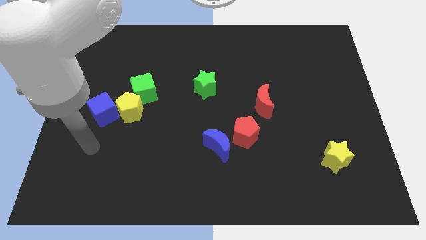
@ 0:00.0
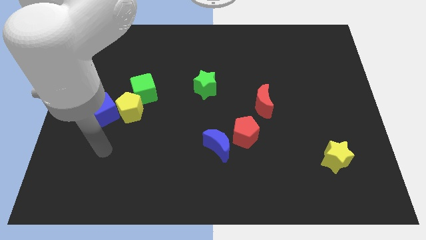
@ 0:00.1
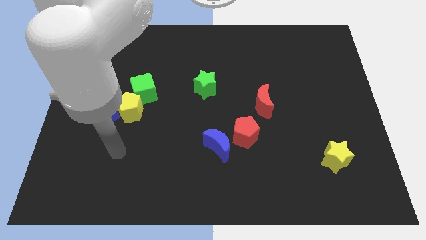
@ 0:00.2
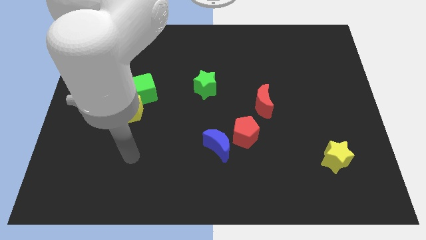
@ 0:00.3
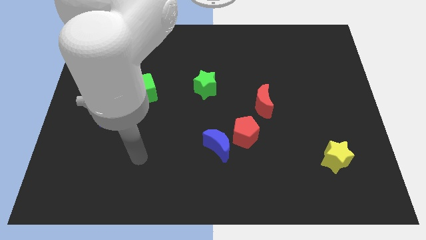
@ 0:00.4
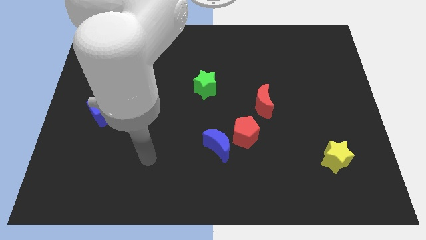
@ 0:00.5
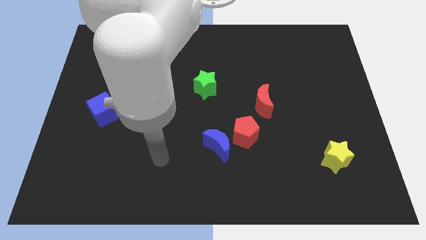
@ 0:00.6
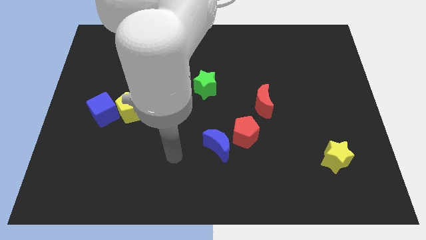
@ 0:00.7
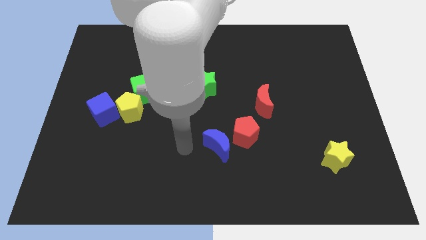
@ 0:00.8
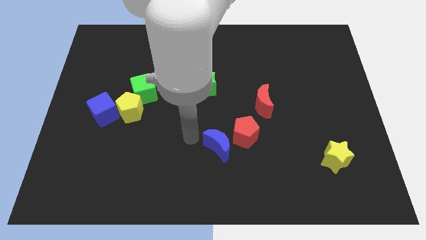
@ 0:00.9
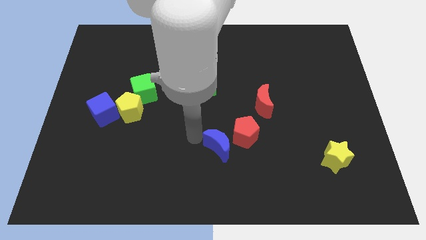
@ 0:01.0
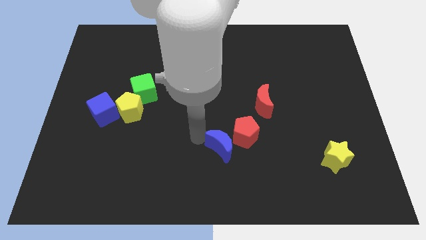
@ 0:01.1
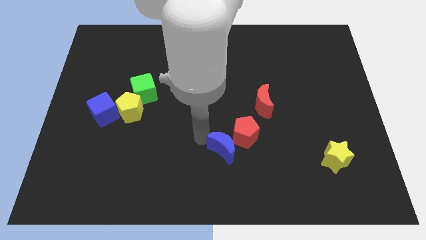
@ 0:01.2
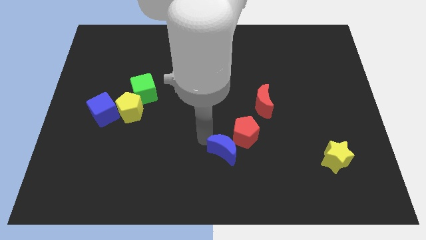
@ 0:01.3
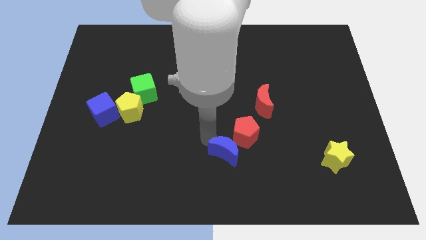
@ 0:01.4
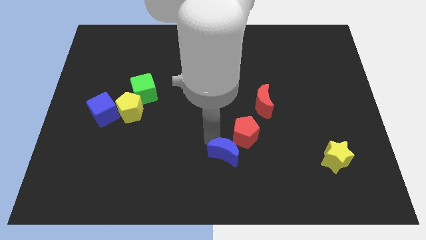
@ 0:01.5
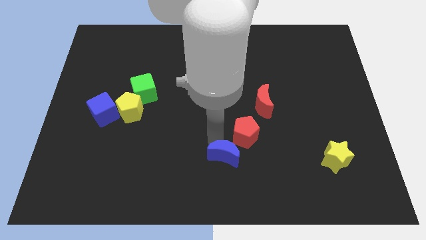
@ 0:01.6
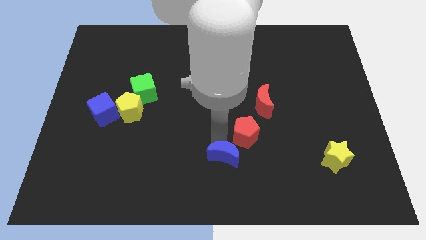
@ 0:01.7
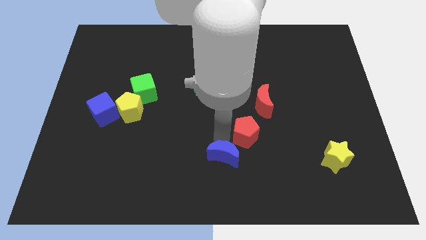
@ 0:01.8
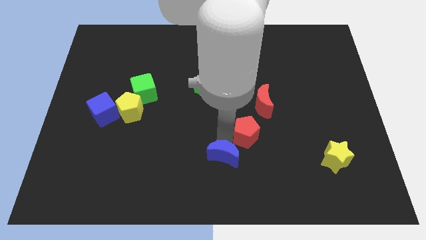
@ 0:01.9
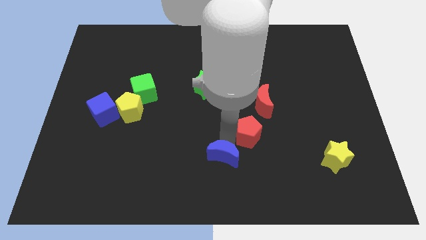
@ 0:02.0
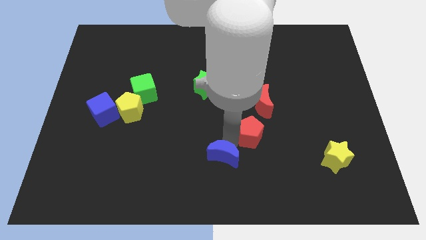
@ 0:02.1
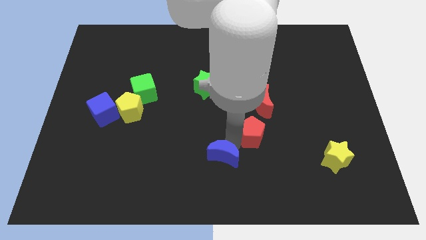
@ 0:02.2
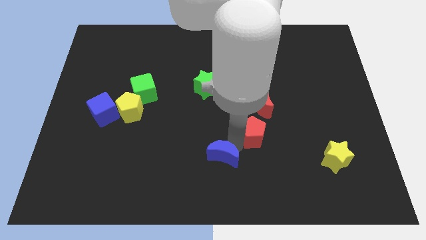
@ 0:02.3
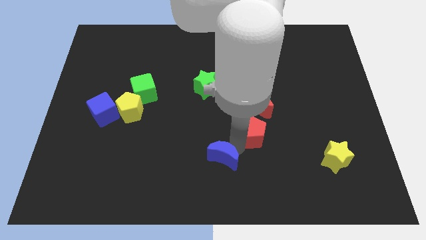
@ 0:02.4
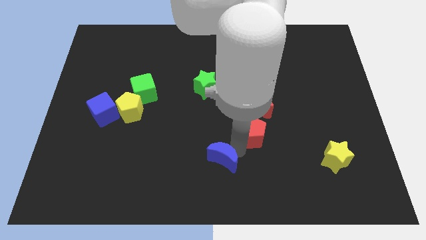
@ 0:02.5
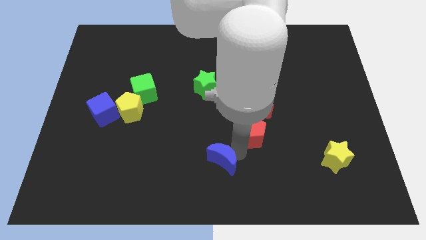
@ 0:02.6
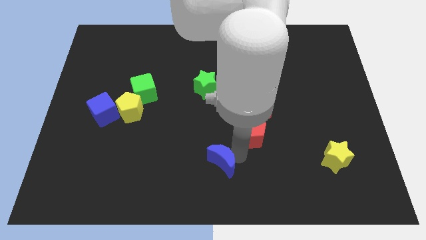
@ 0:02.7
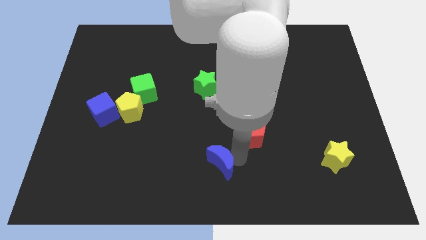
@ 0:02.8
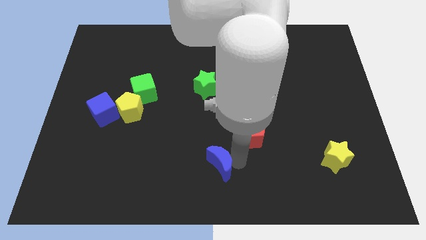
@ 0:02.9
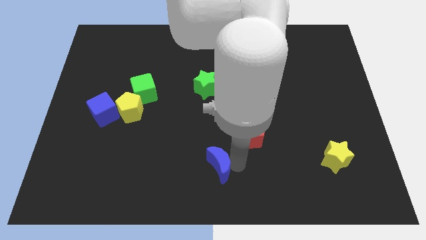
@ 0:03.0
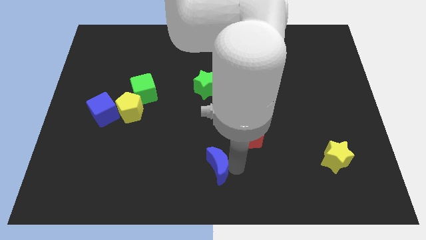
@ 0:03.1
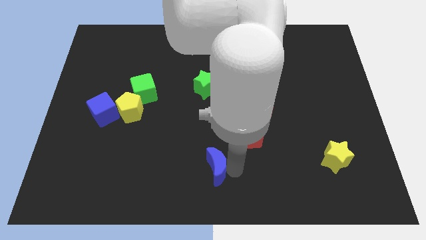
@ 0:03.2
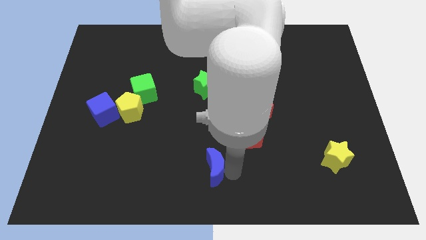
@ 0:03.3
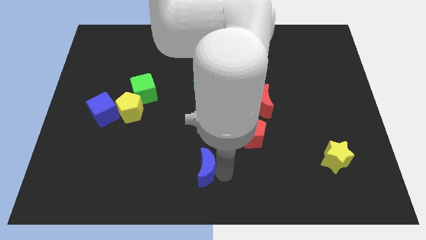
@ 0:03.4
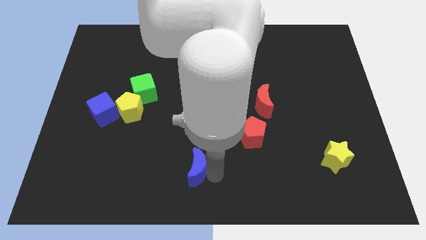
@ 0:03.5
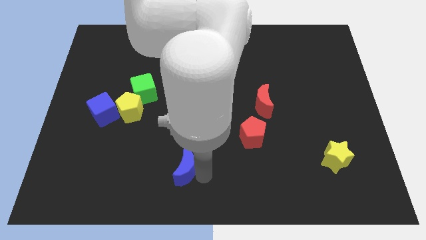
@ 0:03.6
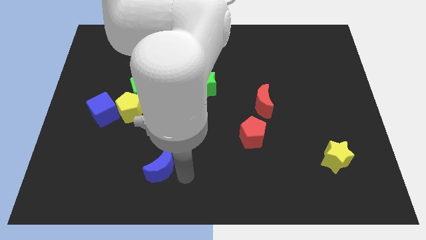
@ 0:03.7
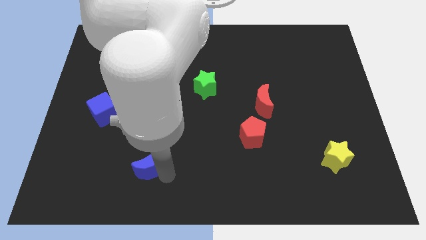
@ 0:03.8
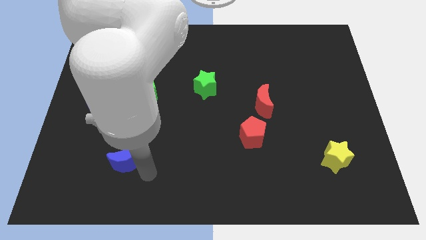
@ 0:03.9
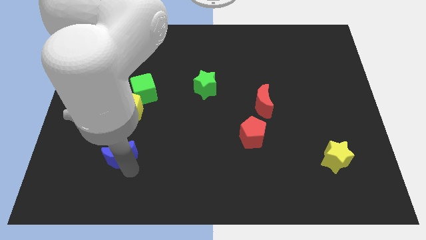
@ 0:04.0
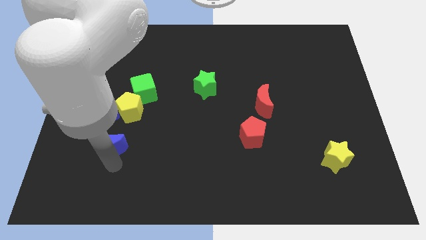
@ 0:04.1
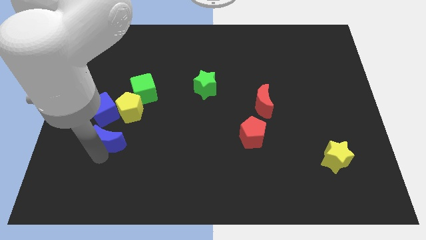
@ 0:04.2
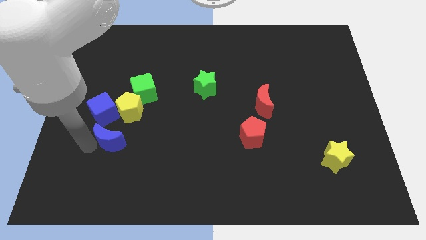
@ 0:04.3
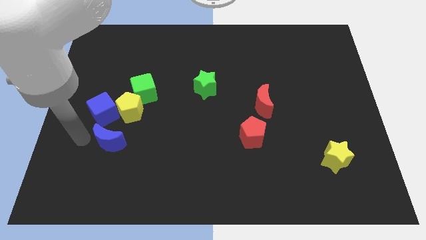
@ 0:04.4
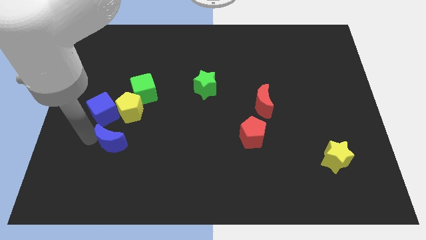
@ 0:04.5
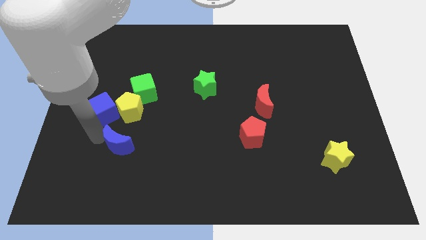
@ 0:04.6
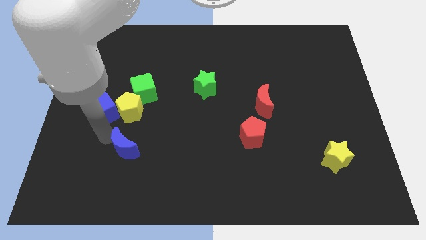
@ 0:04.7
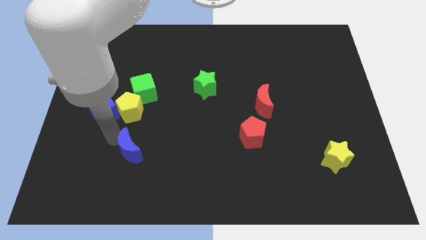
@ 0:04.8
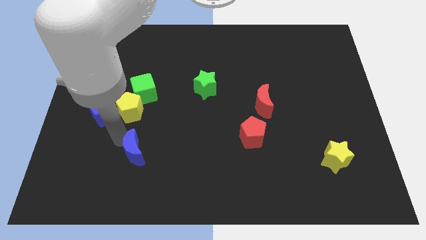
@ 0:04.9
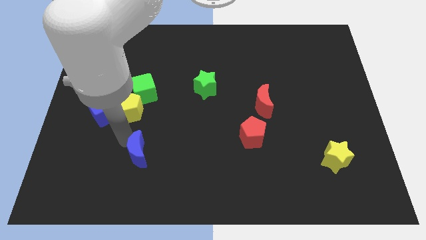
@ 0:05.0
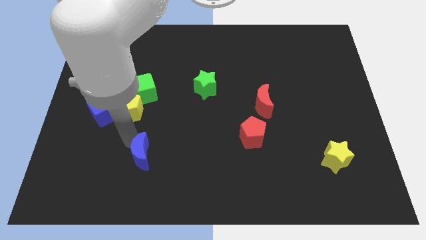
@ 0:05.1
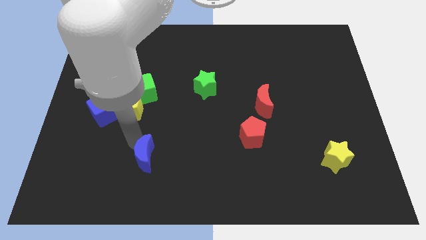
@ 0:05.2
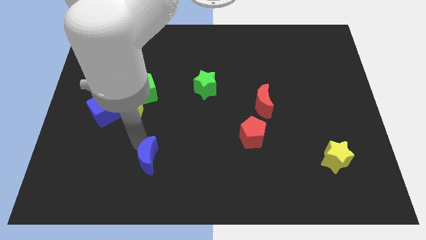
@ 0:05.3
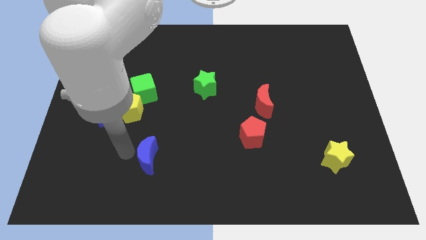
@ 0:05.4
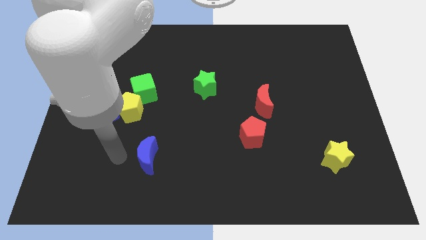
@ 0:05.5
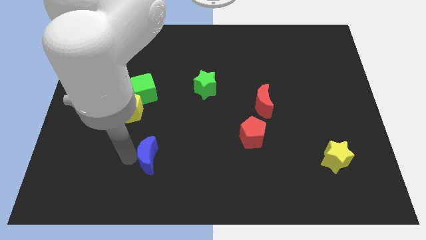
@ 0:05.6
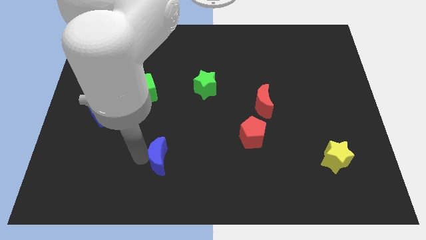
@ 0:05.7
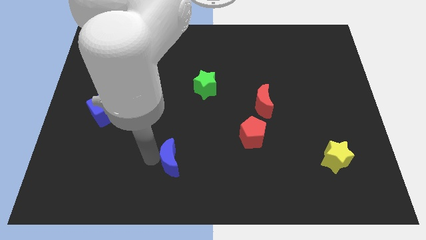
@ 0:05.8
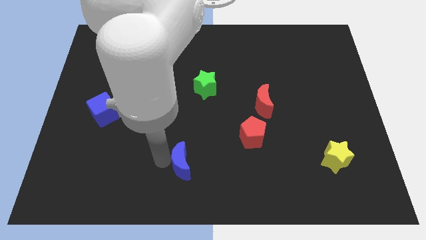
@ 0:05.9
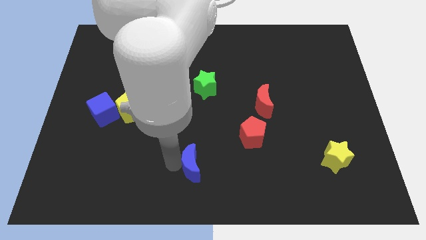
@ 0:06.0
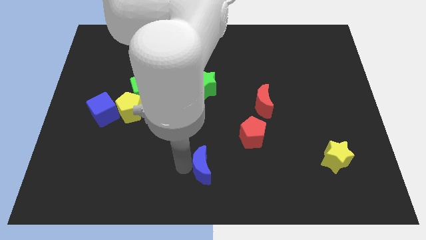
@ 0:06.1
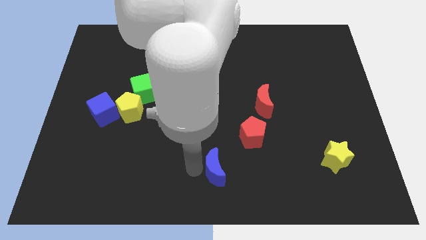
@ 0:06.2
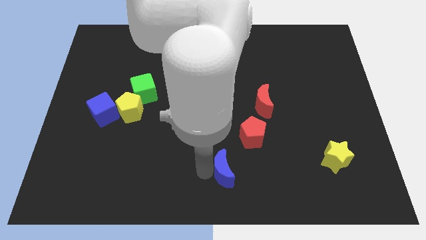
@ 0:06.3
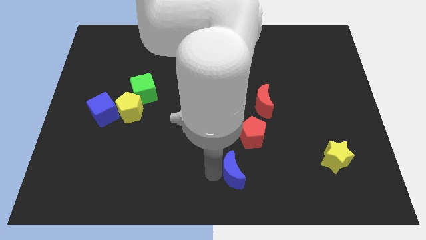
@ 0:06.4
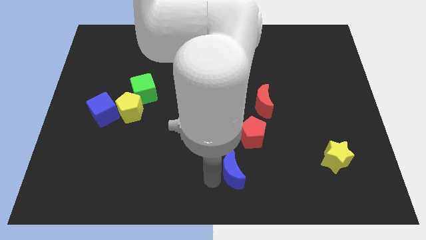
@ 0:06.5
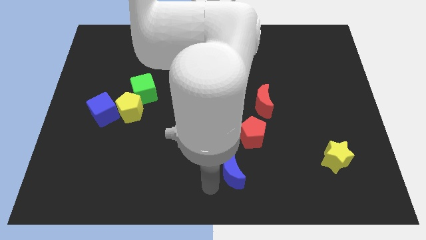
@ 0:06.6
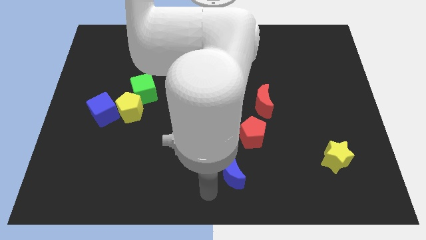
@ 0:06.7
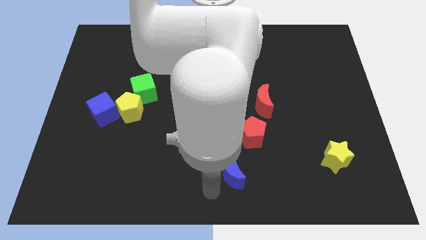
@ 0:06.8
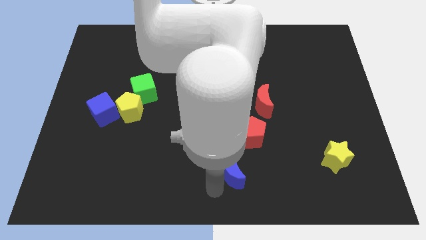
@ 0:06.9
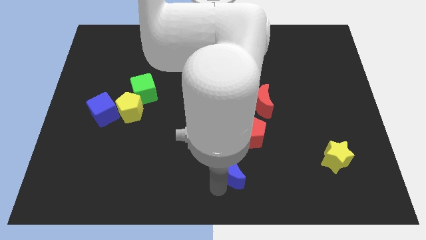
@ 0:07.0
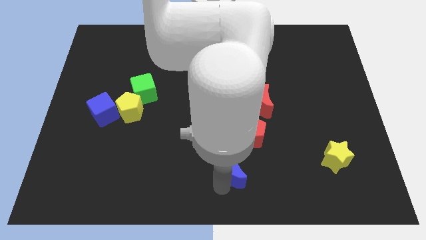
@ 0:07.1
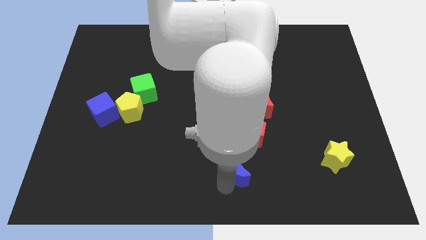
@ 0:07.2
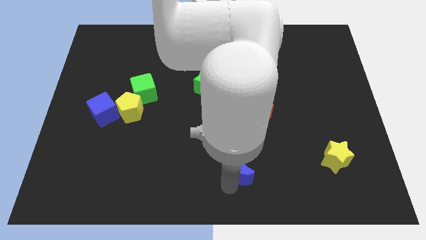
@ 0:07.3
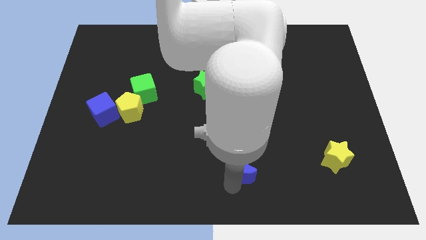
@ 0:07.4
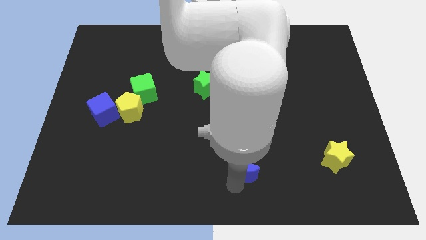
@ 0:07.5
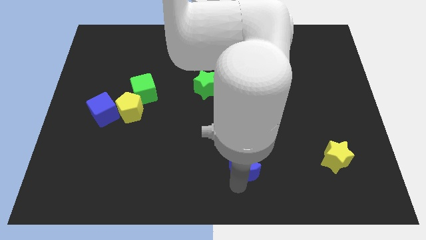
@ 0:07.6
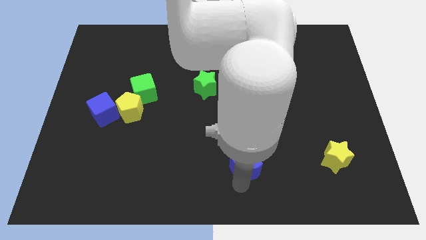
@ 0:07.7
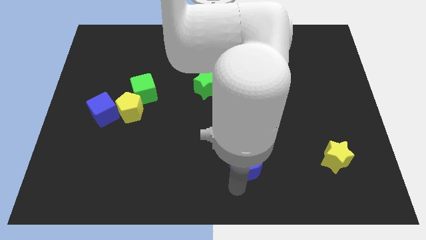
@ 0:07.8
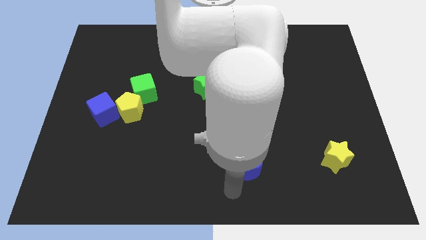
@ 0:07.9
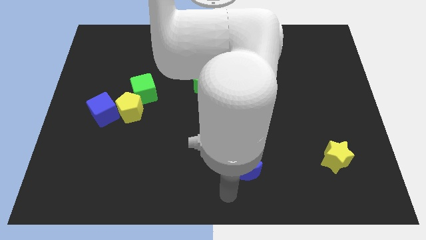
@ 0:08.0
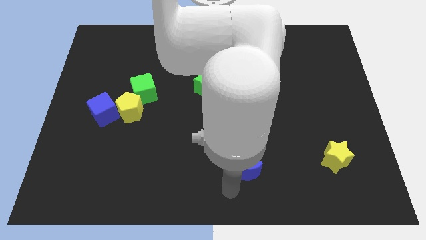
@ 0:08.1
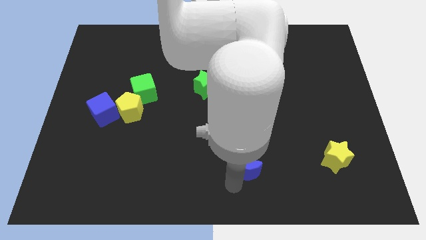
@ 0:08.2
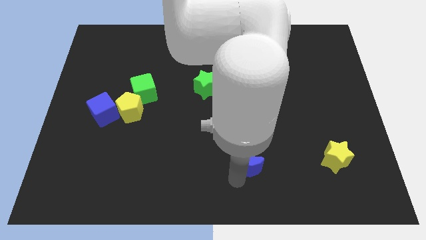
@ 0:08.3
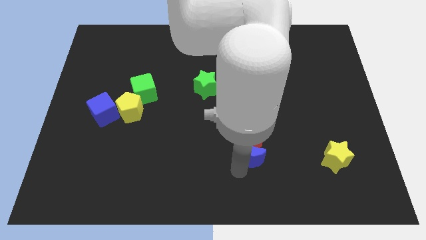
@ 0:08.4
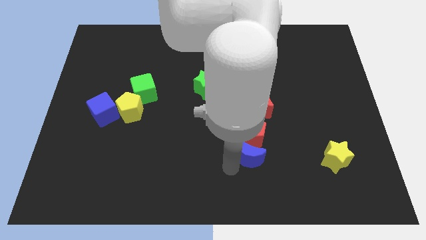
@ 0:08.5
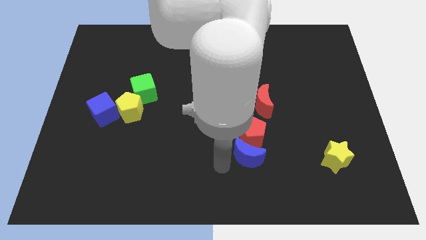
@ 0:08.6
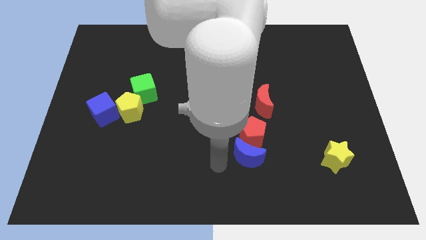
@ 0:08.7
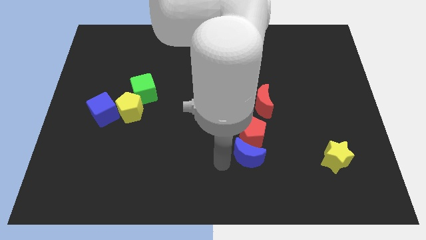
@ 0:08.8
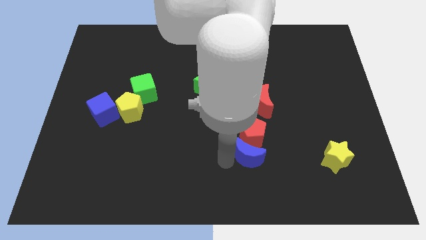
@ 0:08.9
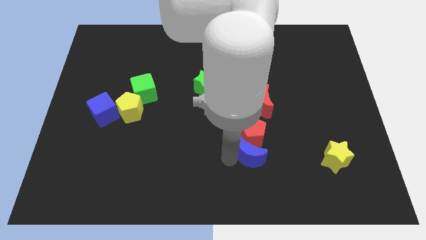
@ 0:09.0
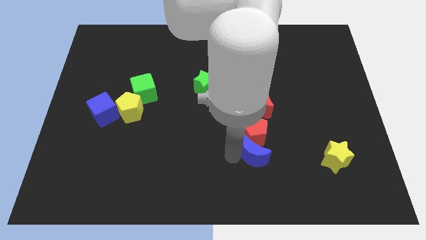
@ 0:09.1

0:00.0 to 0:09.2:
slide the blue moon a little right
